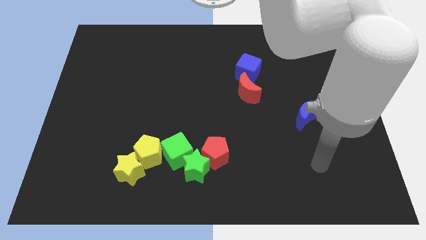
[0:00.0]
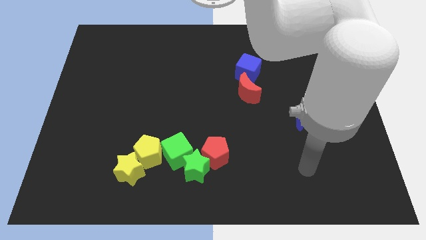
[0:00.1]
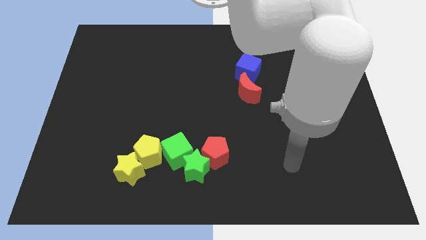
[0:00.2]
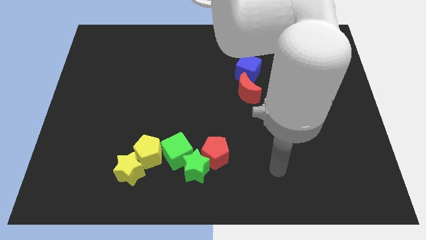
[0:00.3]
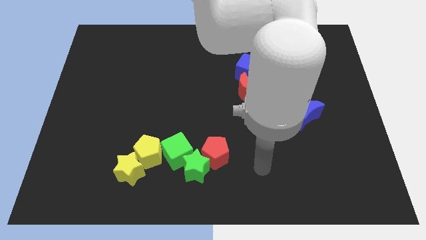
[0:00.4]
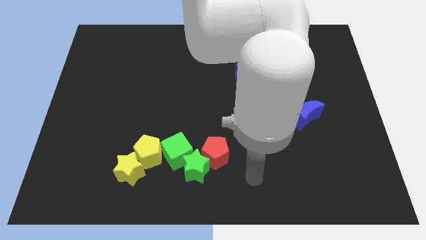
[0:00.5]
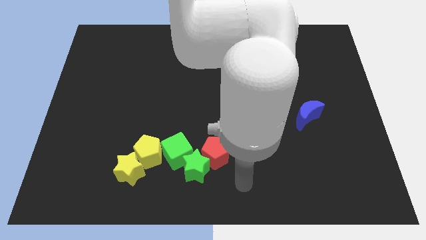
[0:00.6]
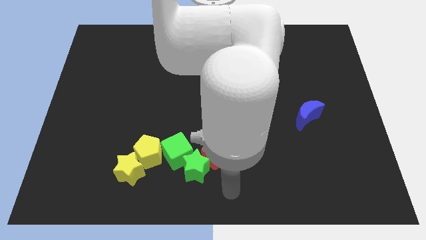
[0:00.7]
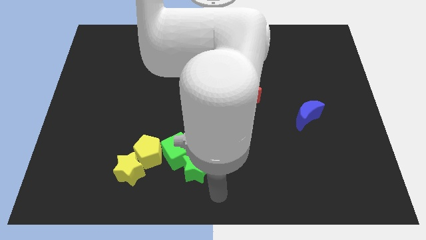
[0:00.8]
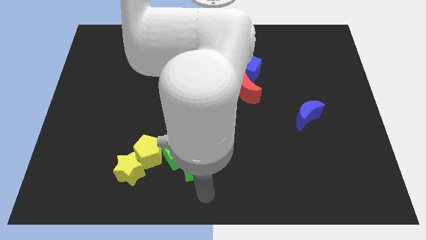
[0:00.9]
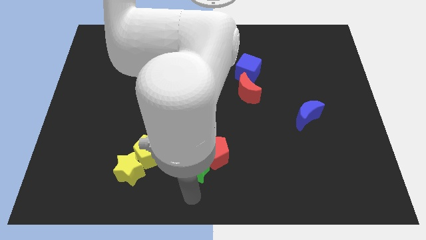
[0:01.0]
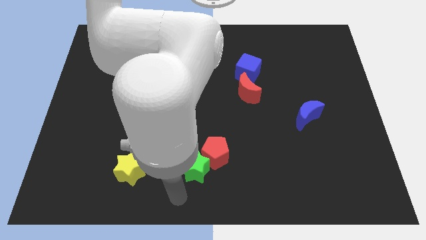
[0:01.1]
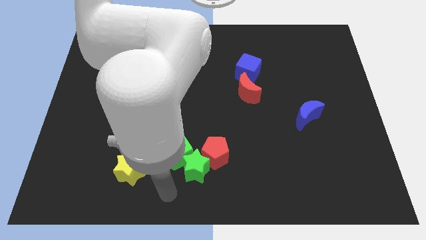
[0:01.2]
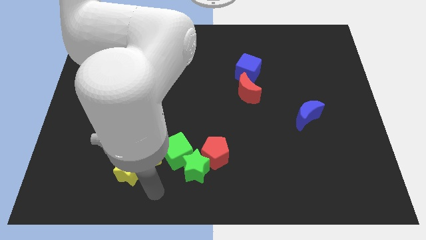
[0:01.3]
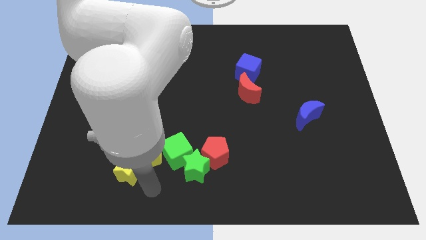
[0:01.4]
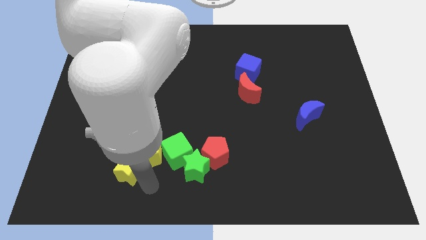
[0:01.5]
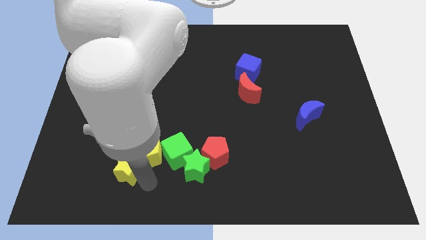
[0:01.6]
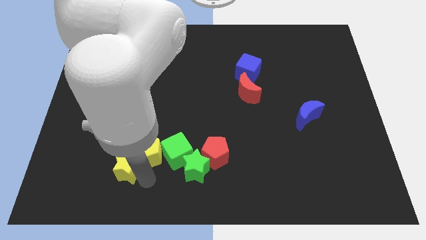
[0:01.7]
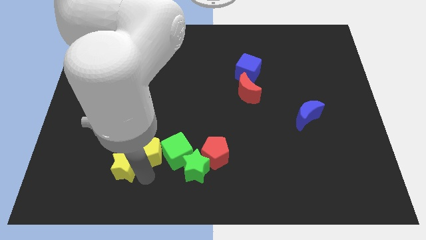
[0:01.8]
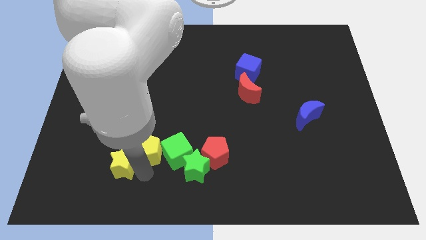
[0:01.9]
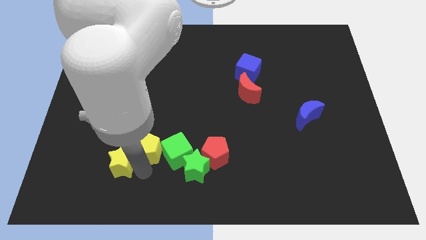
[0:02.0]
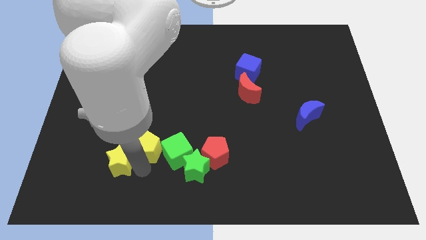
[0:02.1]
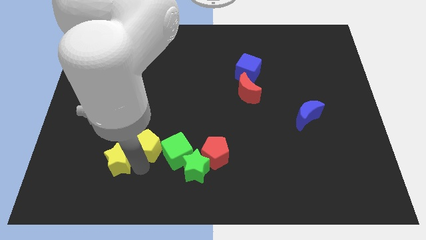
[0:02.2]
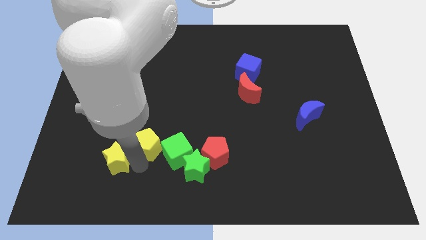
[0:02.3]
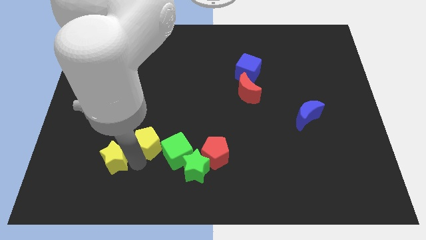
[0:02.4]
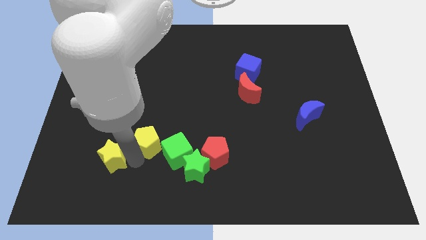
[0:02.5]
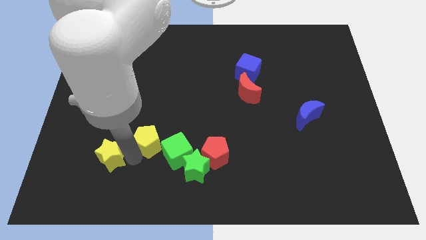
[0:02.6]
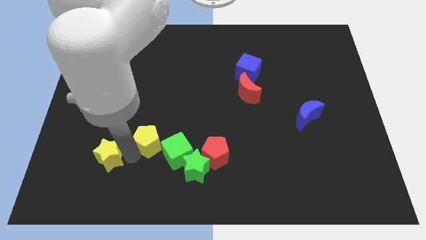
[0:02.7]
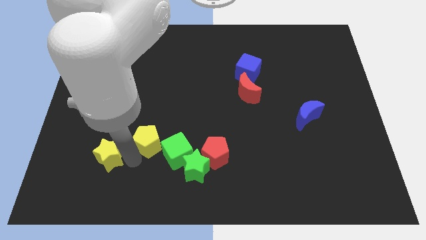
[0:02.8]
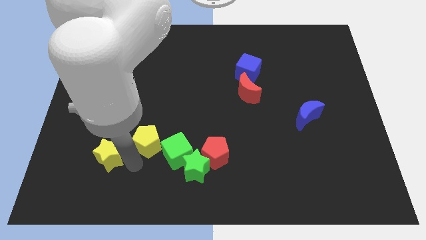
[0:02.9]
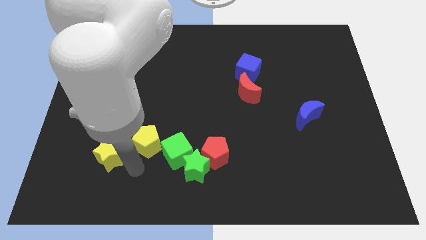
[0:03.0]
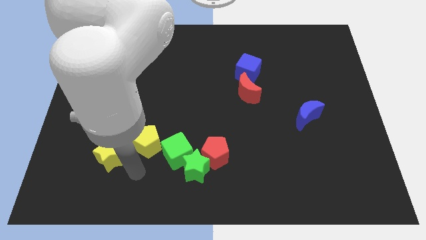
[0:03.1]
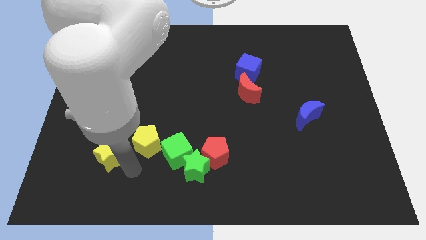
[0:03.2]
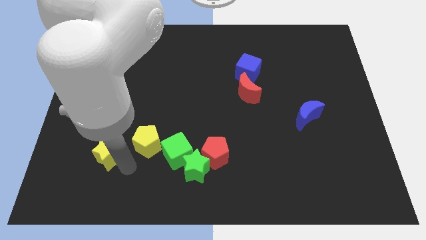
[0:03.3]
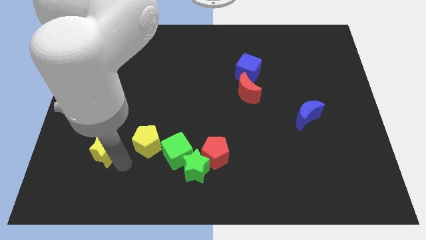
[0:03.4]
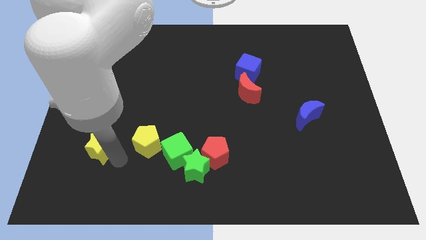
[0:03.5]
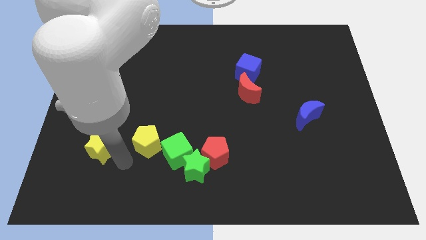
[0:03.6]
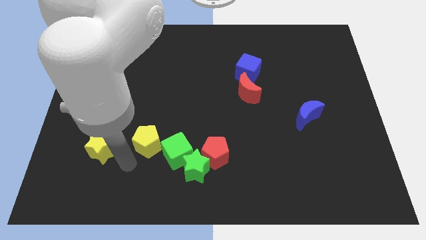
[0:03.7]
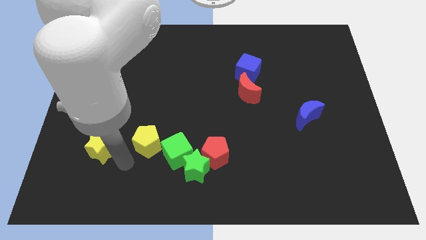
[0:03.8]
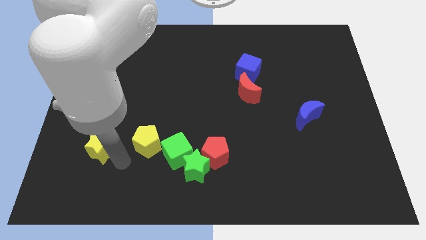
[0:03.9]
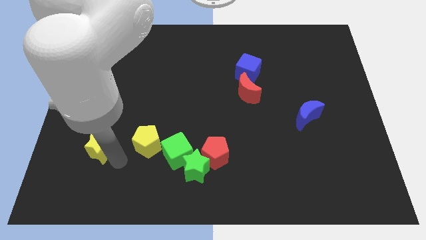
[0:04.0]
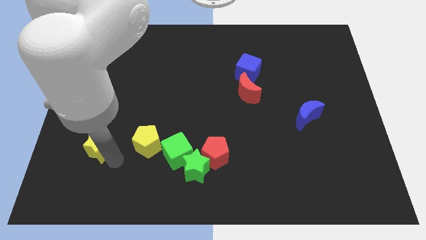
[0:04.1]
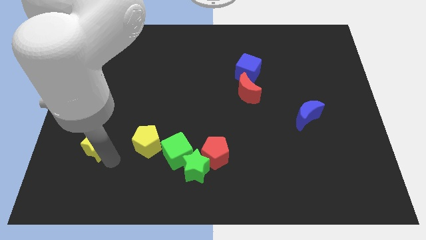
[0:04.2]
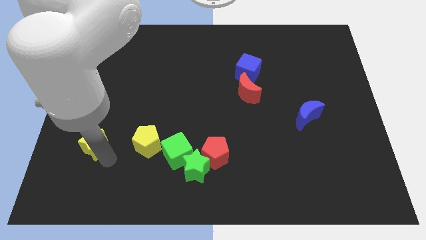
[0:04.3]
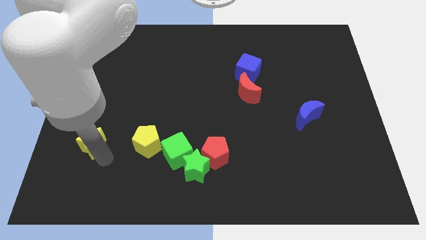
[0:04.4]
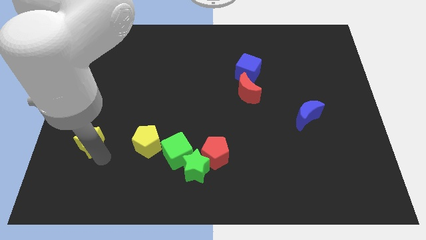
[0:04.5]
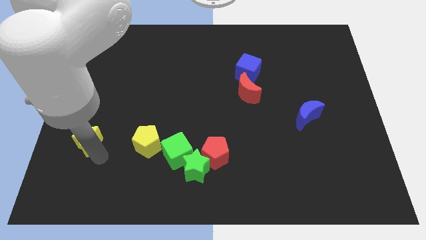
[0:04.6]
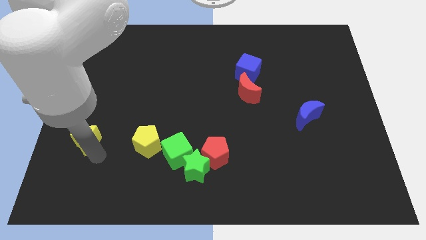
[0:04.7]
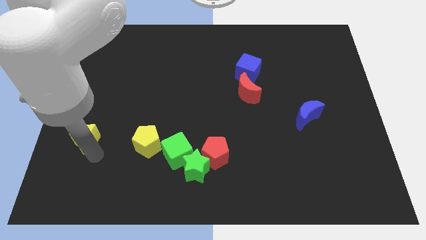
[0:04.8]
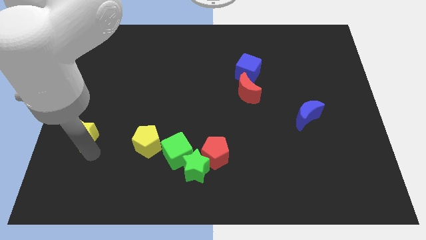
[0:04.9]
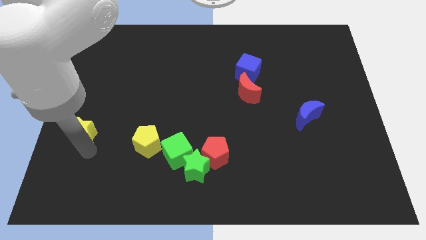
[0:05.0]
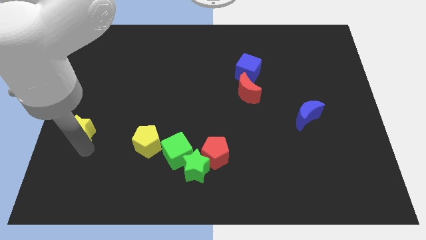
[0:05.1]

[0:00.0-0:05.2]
move the yellow star to the left side
